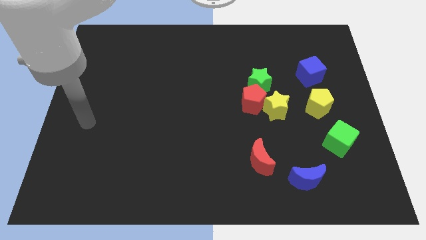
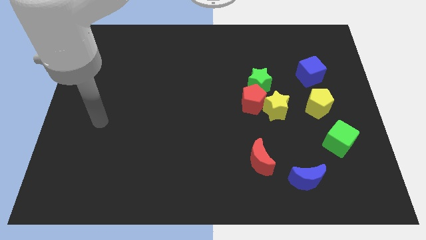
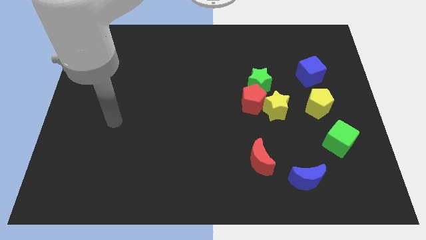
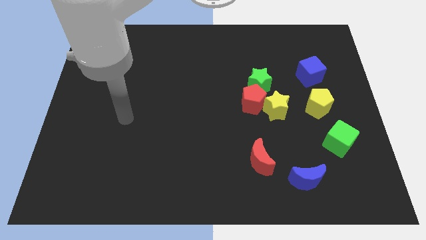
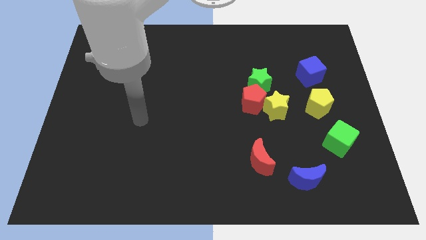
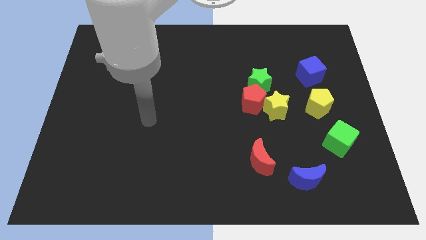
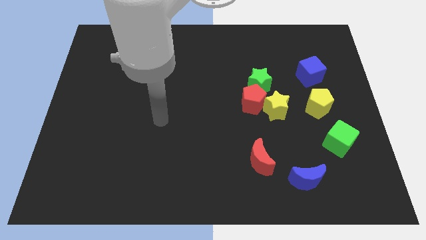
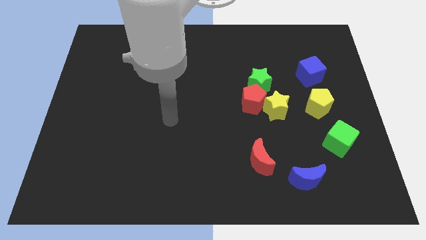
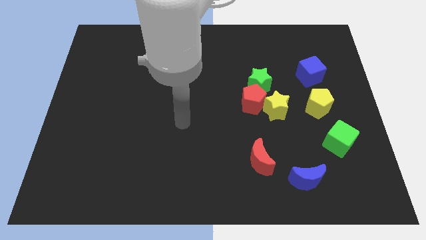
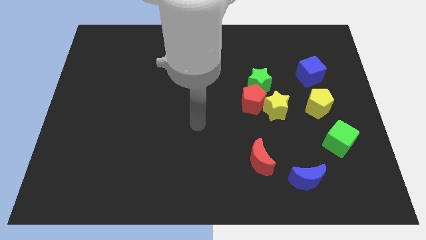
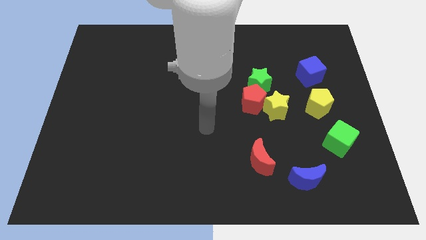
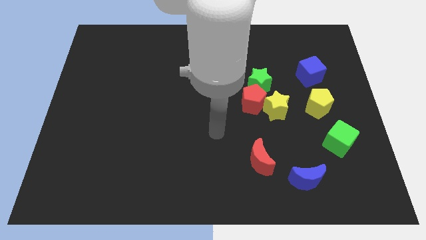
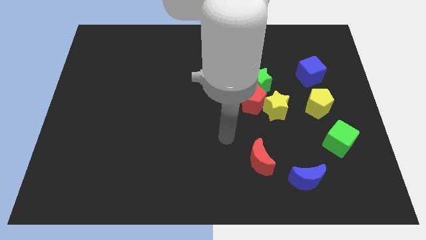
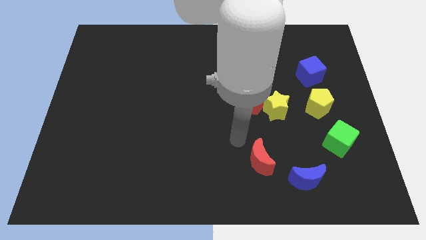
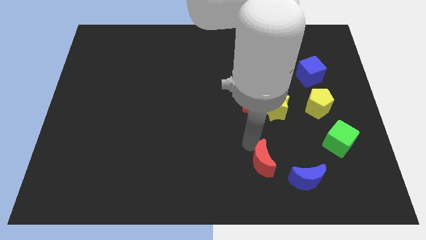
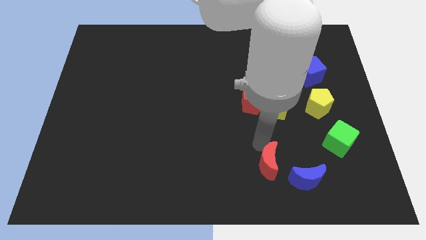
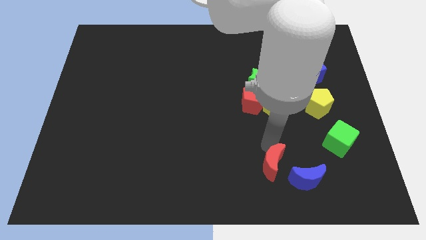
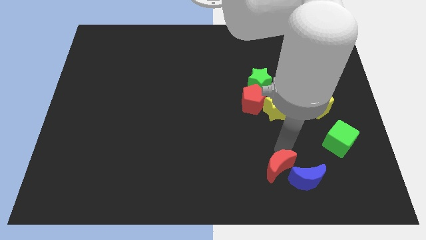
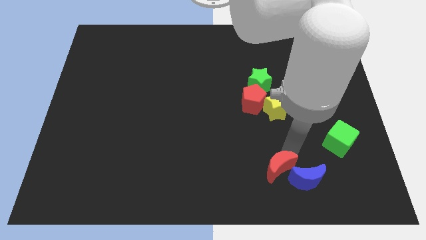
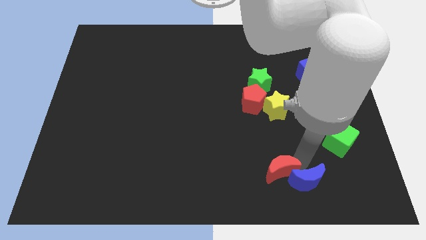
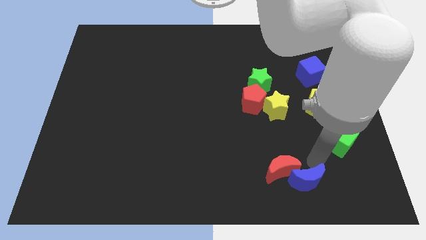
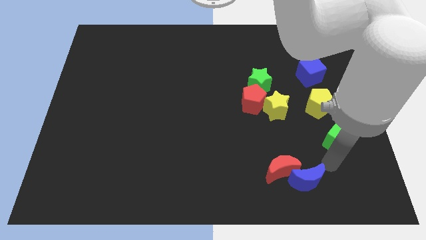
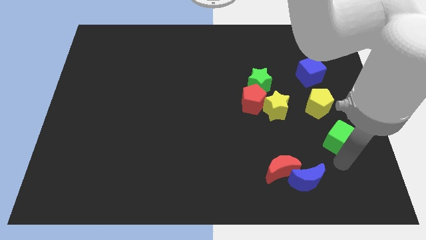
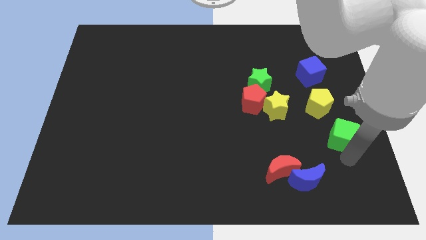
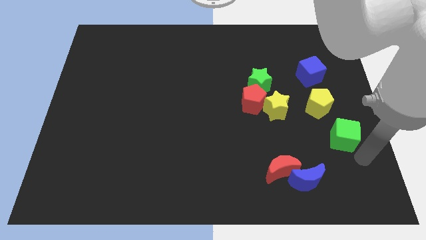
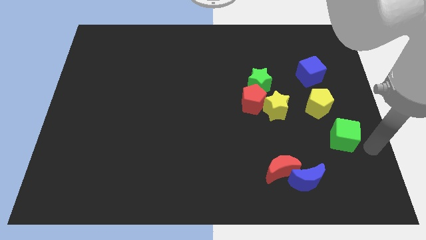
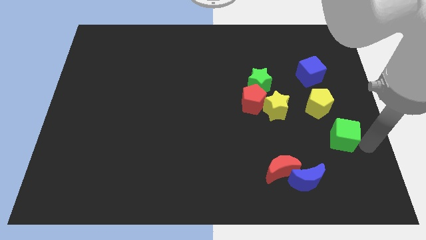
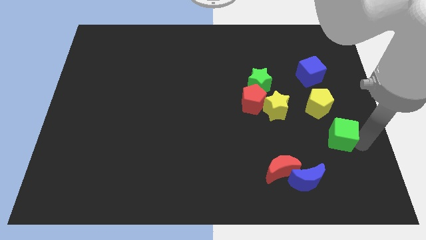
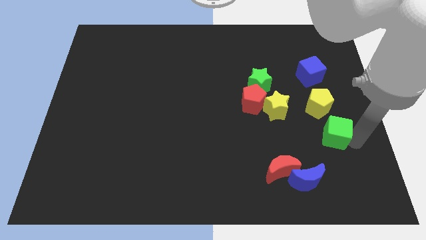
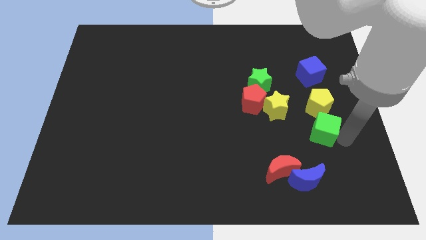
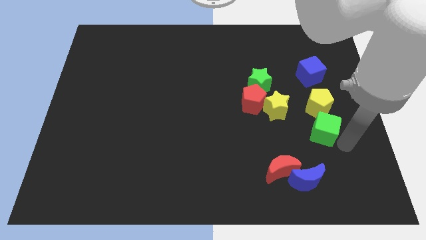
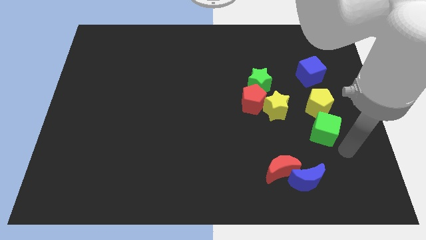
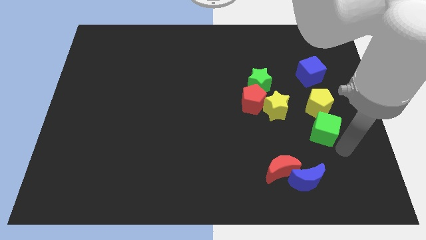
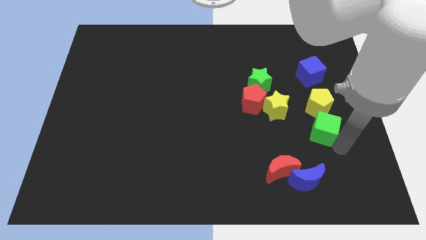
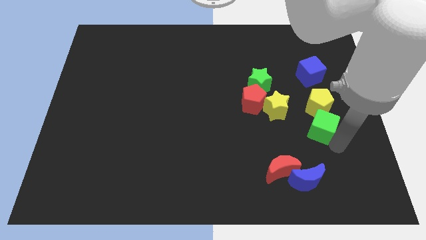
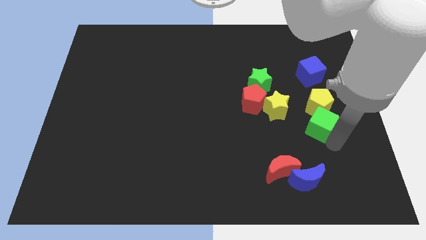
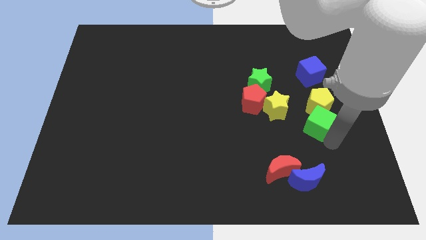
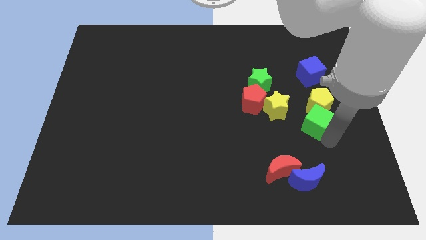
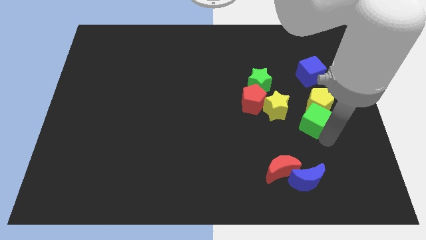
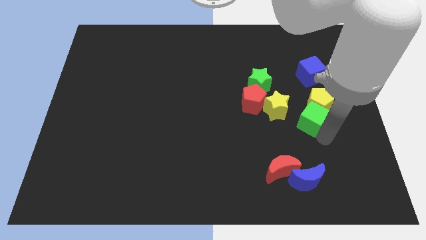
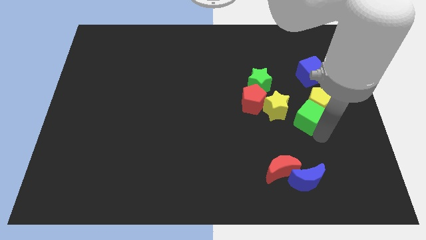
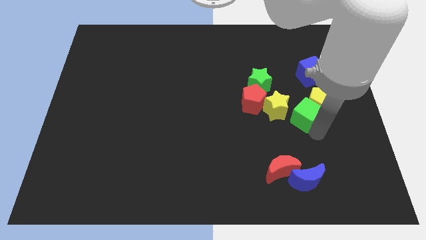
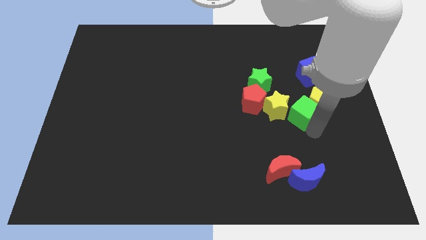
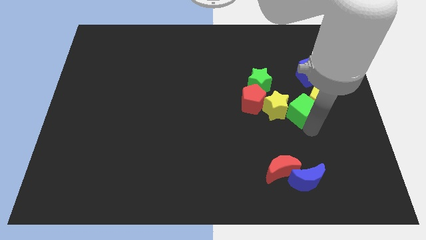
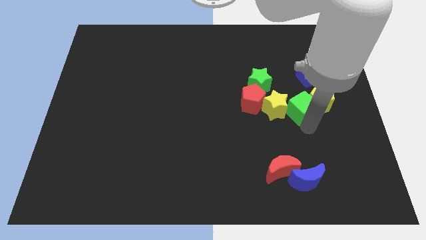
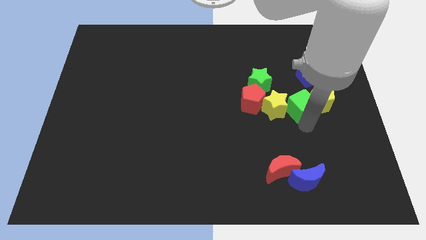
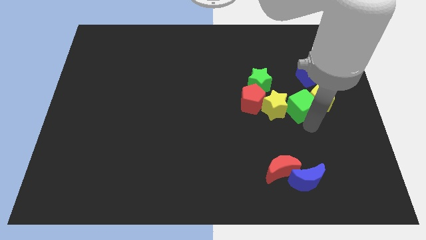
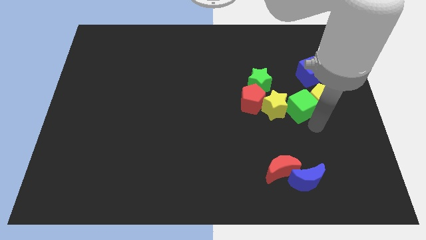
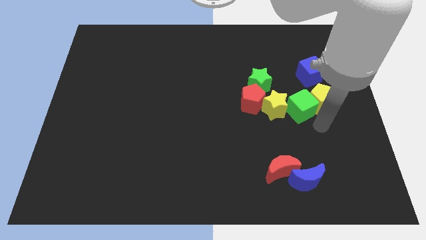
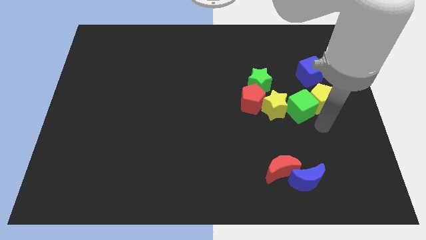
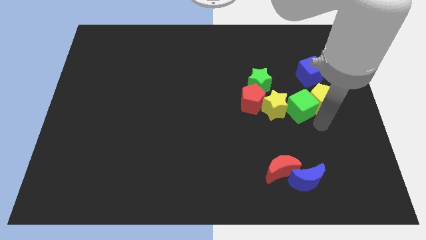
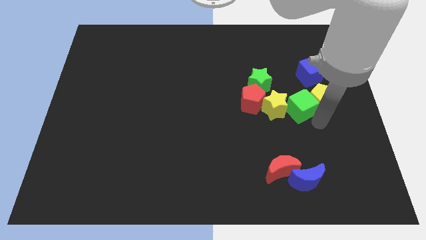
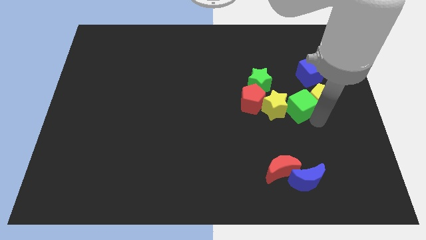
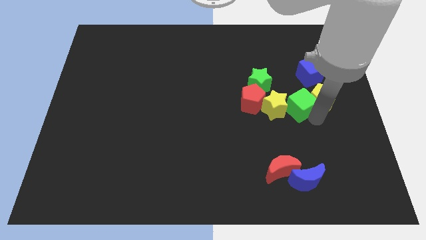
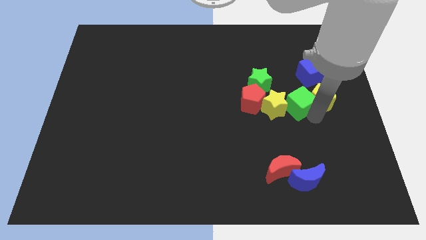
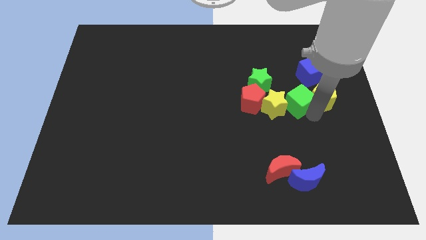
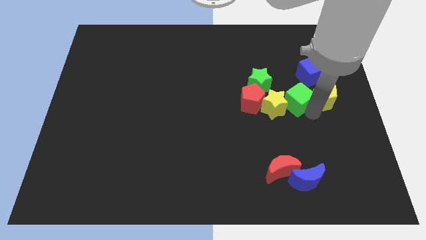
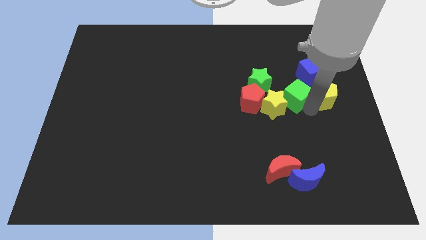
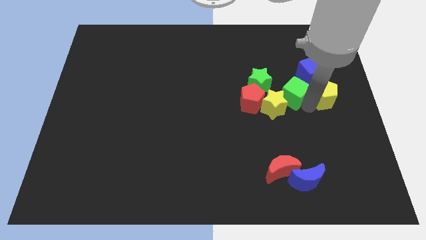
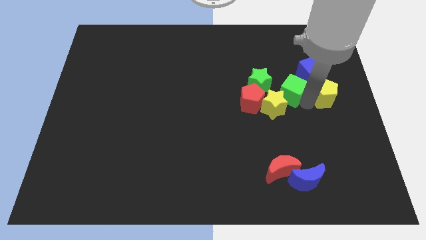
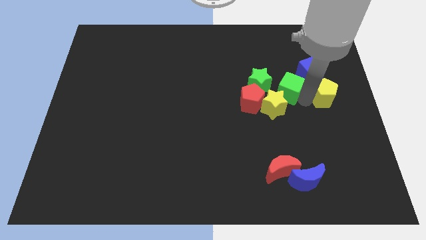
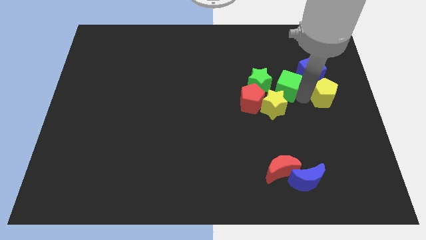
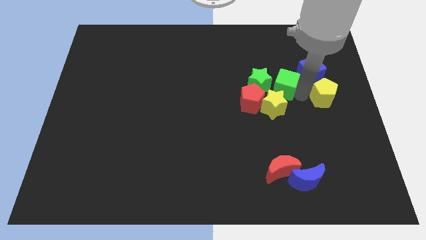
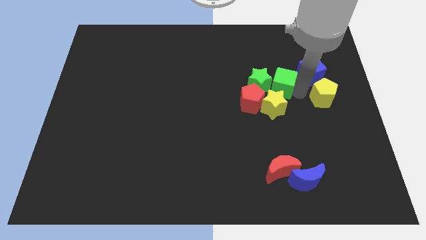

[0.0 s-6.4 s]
push the green cube towards the green star

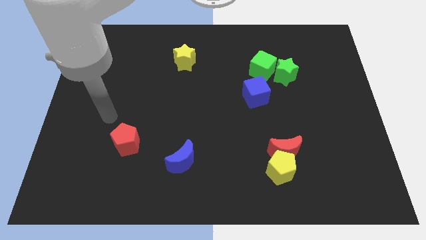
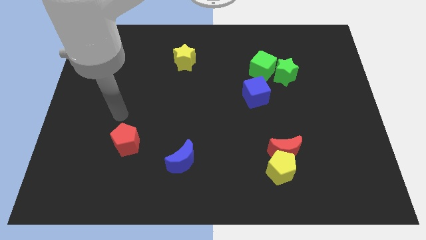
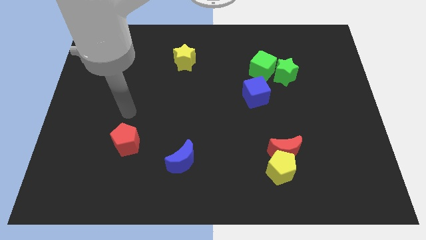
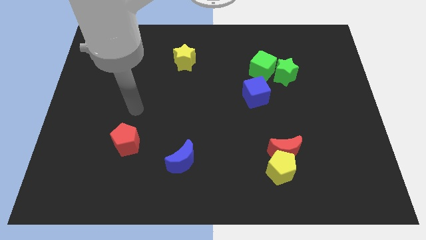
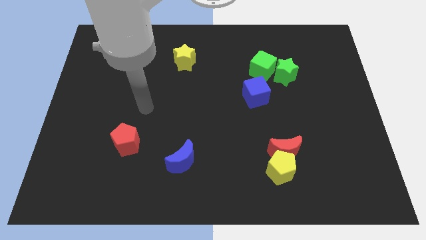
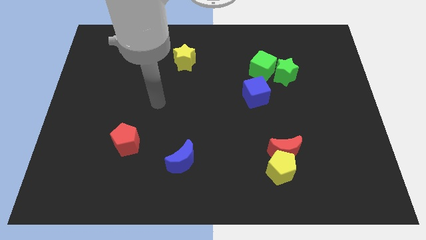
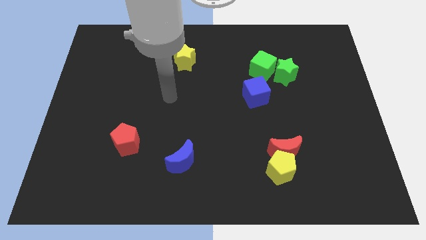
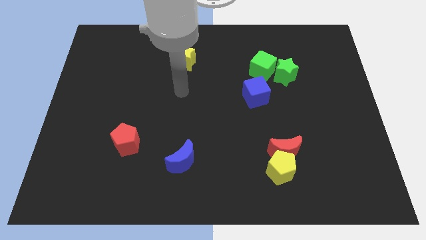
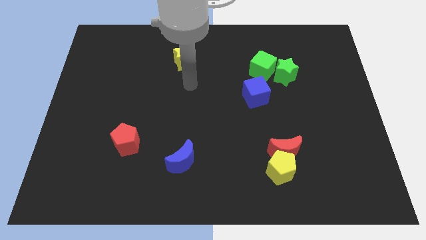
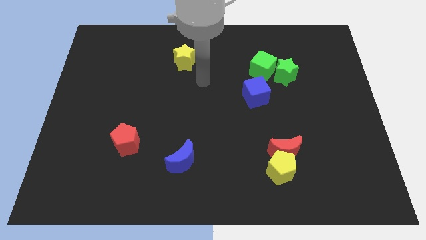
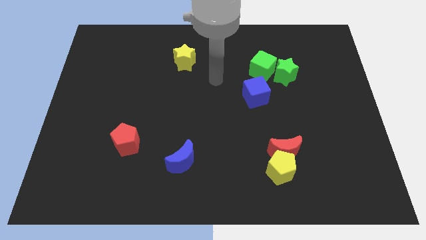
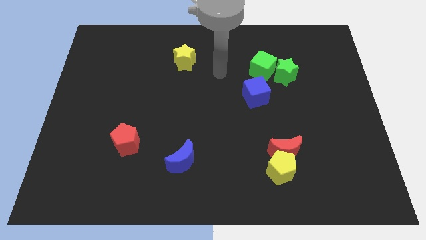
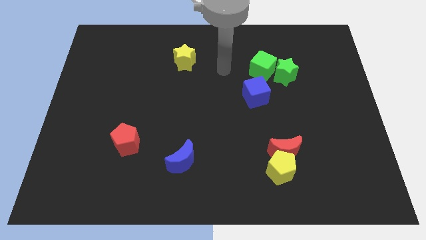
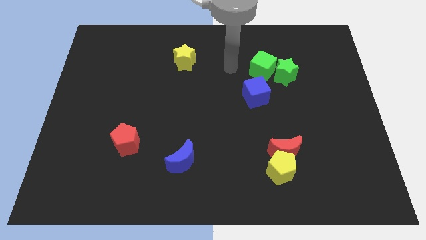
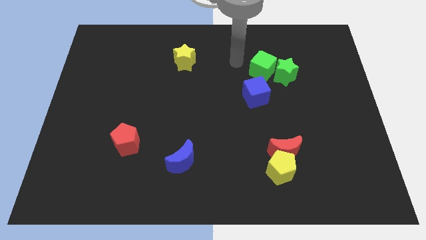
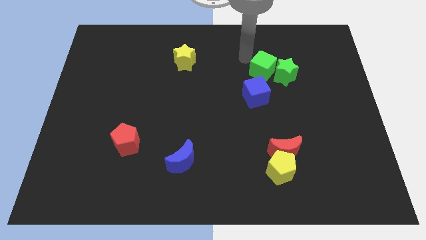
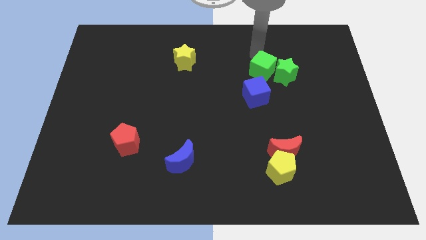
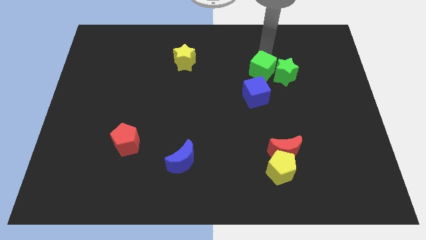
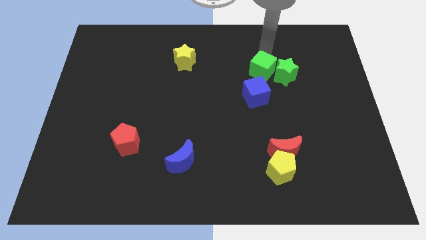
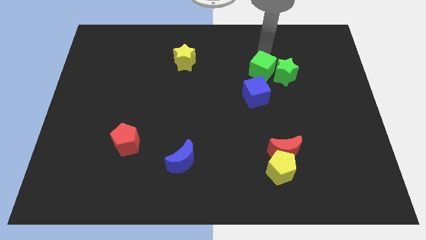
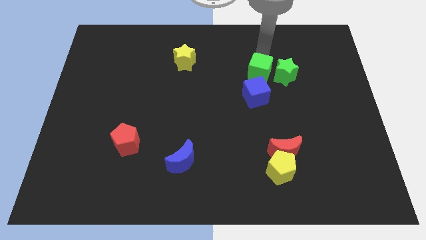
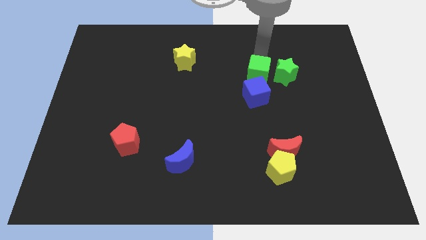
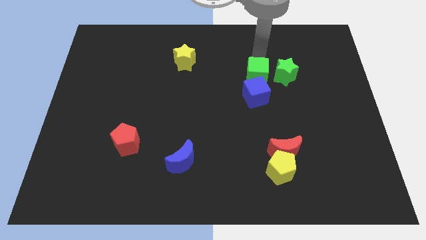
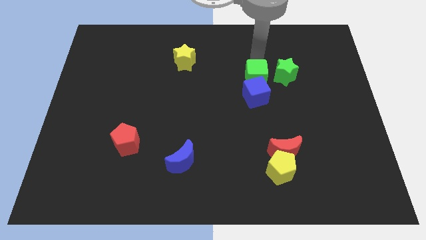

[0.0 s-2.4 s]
put the green cube to the blue cube
